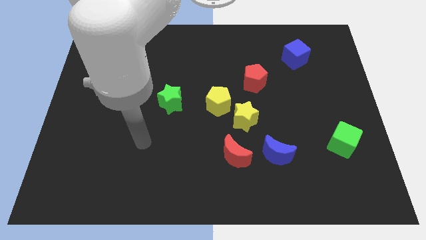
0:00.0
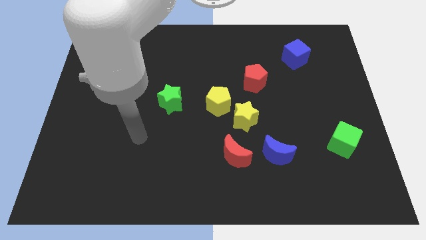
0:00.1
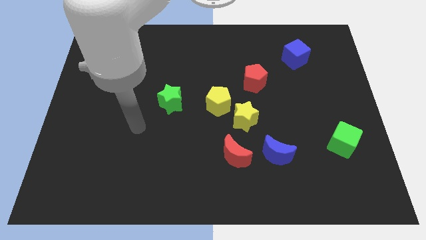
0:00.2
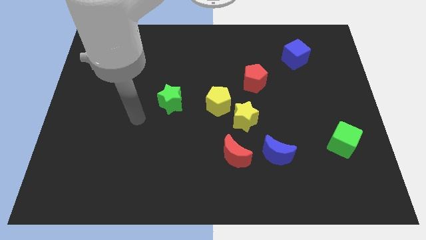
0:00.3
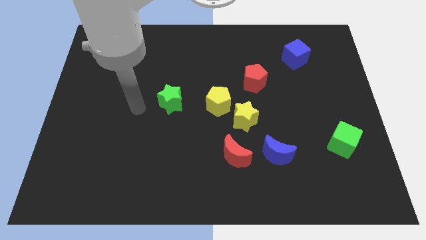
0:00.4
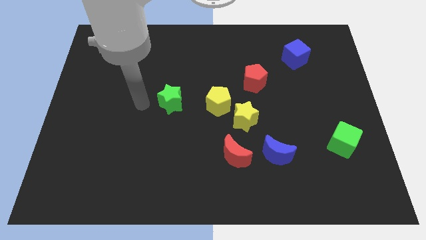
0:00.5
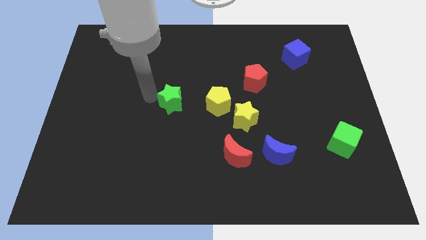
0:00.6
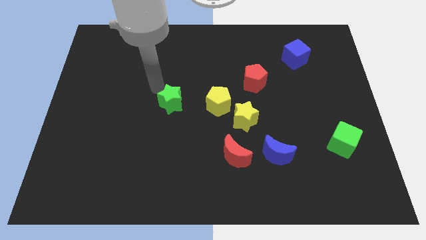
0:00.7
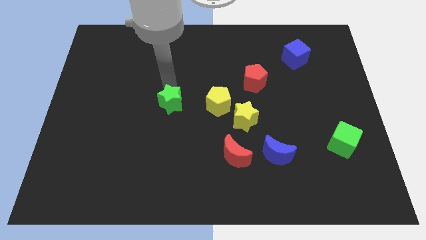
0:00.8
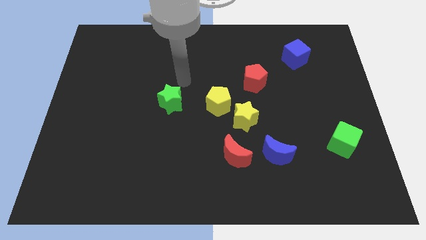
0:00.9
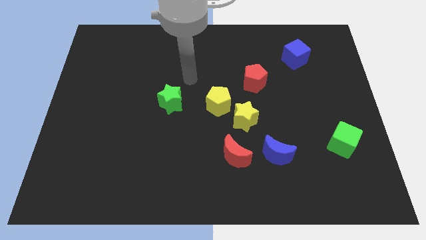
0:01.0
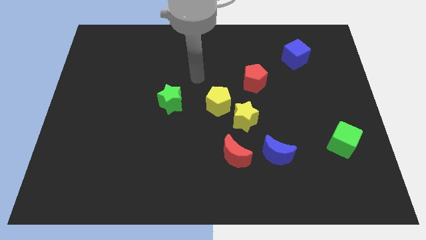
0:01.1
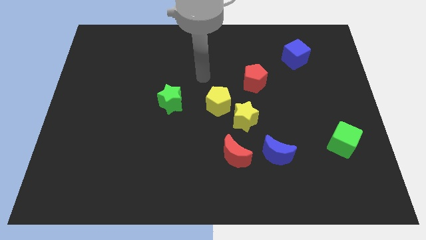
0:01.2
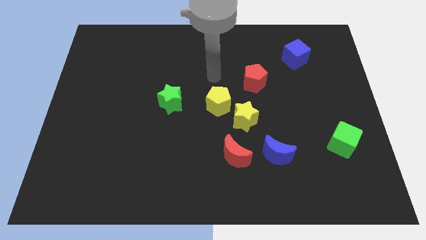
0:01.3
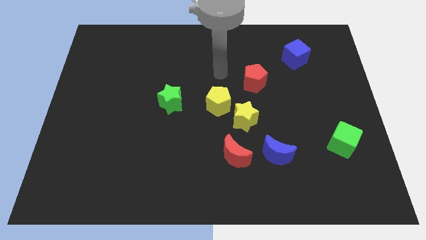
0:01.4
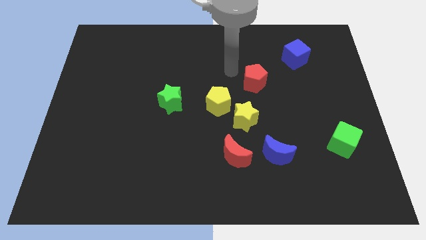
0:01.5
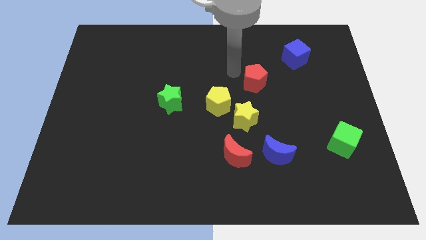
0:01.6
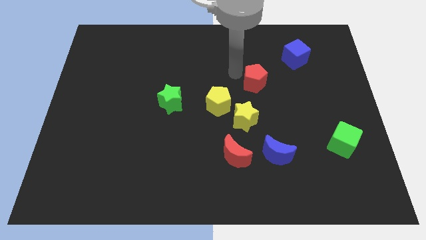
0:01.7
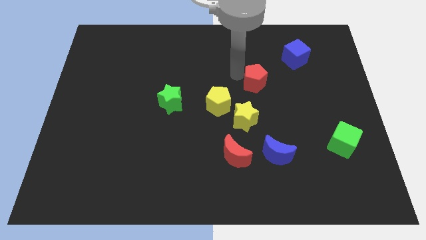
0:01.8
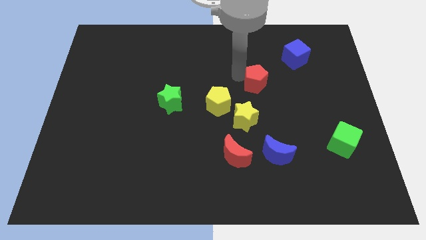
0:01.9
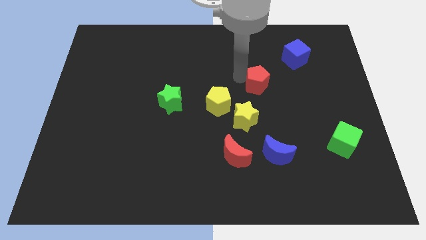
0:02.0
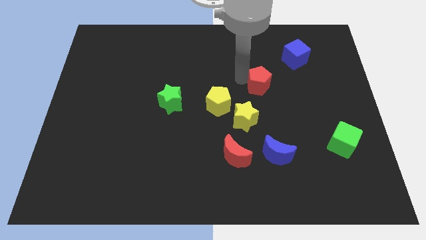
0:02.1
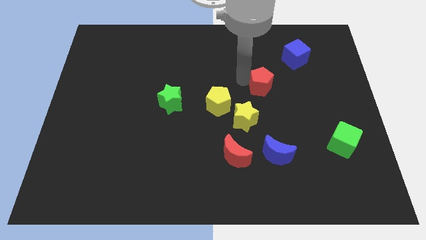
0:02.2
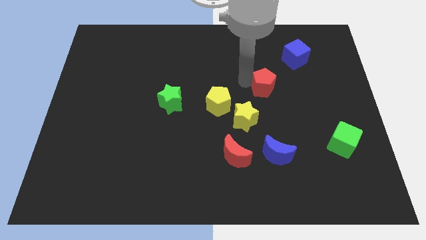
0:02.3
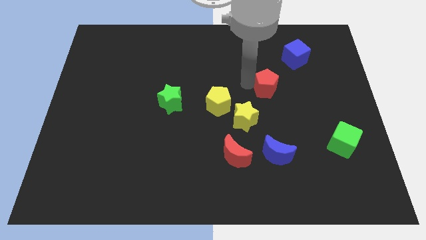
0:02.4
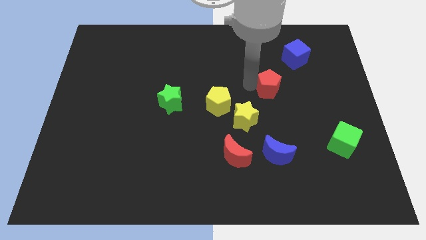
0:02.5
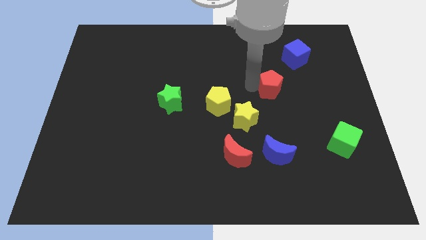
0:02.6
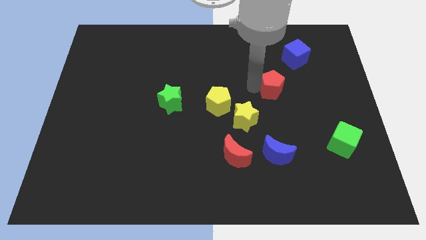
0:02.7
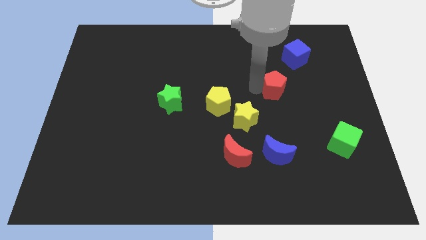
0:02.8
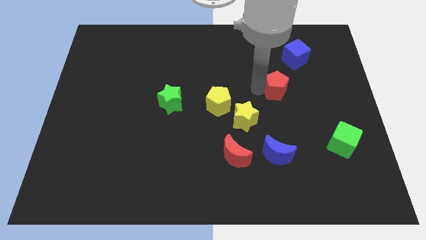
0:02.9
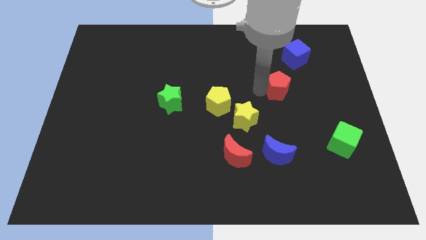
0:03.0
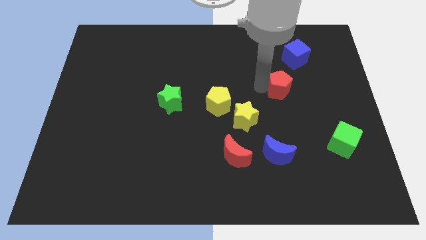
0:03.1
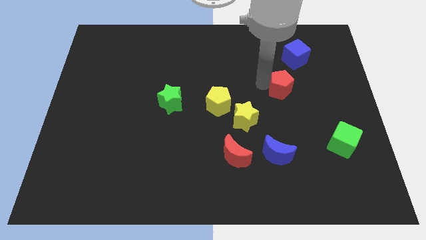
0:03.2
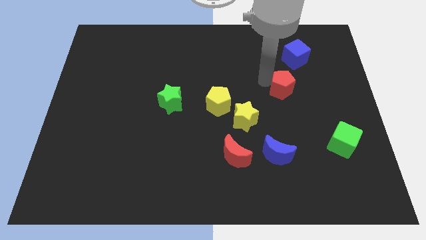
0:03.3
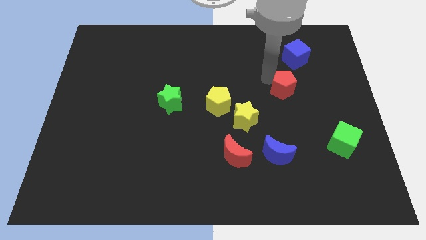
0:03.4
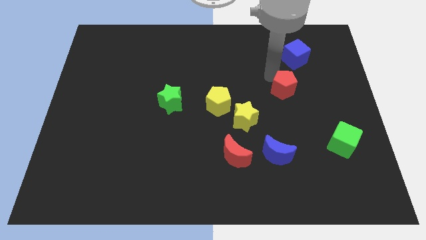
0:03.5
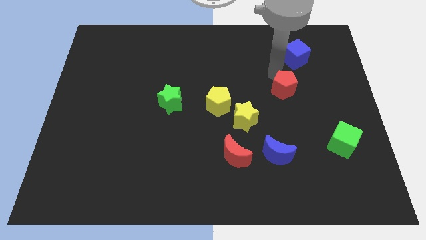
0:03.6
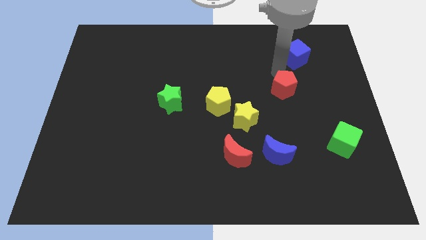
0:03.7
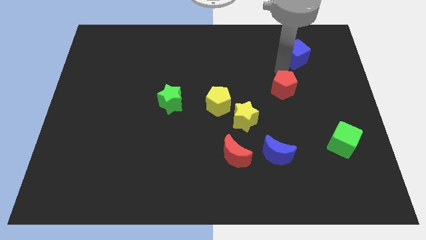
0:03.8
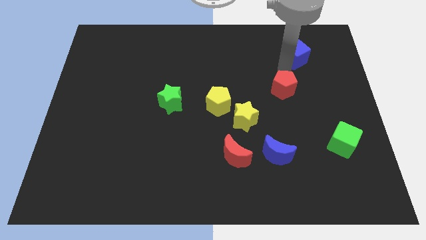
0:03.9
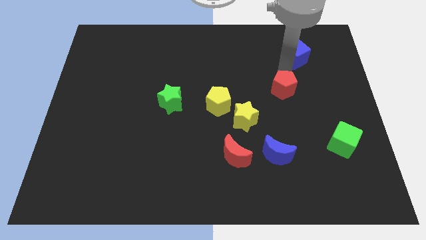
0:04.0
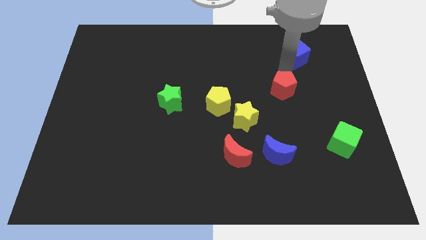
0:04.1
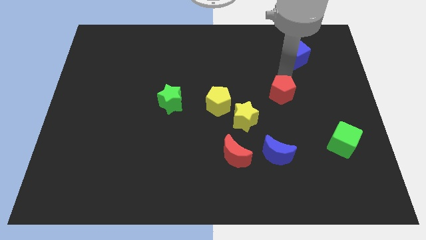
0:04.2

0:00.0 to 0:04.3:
slide the red pentagon down and to the right diagonally a bit

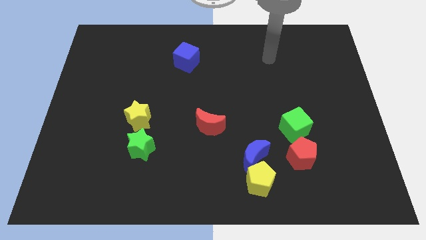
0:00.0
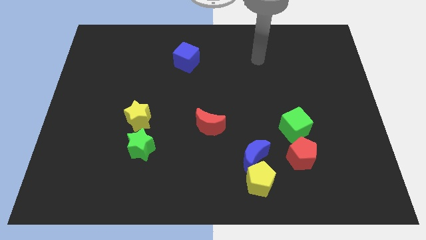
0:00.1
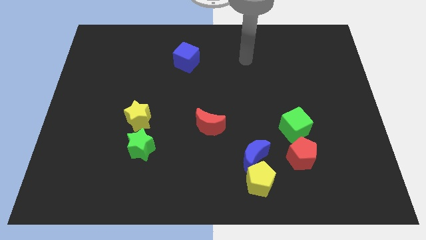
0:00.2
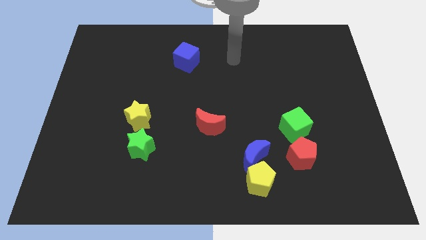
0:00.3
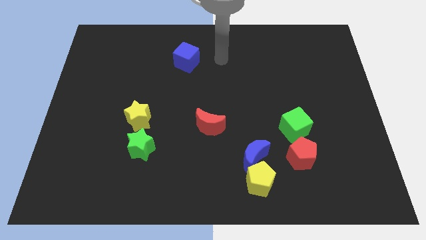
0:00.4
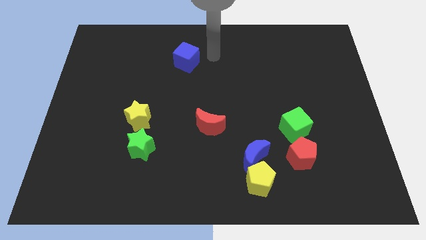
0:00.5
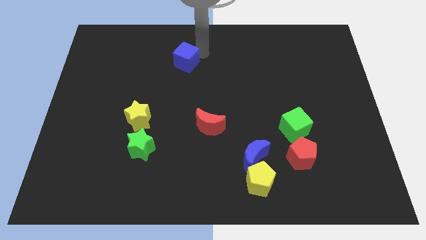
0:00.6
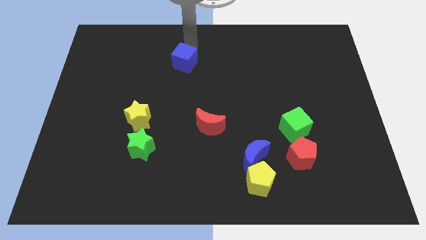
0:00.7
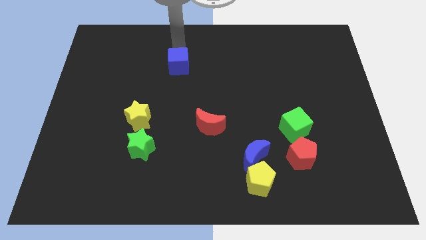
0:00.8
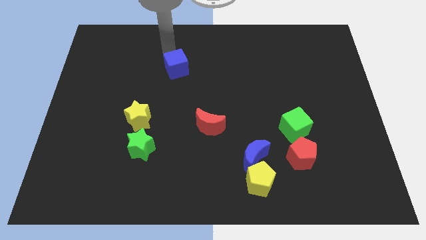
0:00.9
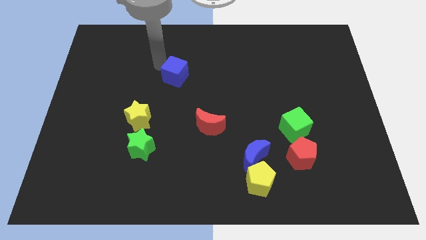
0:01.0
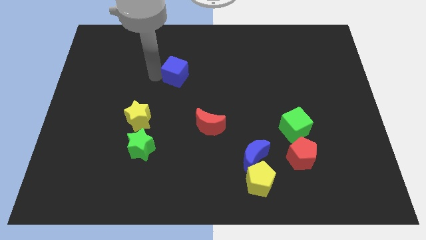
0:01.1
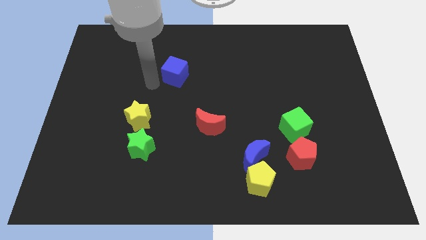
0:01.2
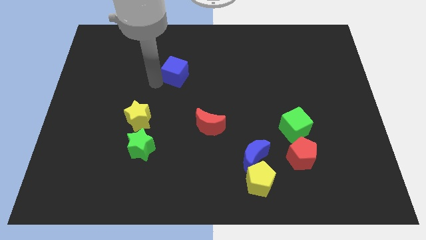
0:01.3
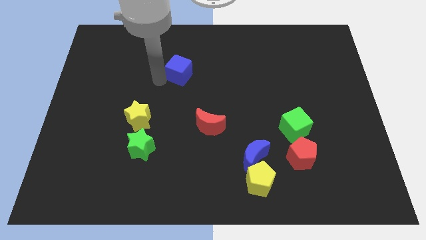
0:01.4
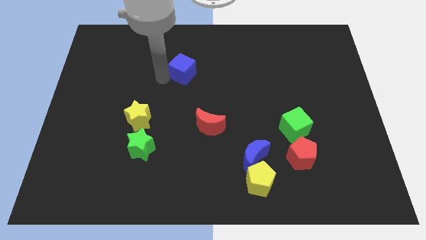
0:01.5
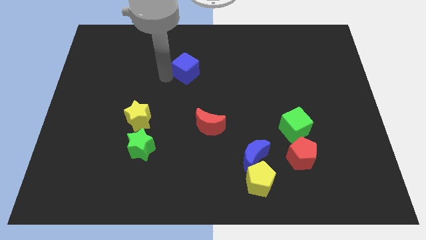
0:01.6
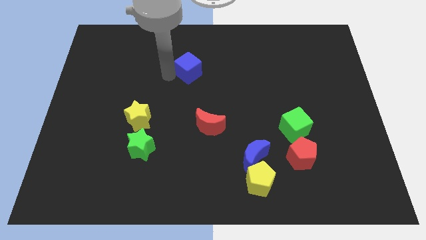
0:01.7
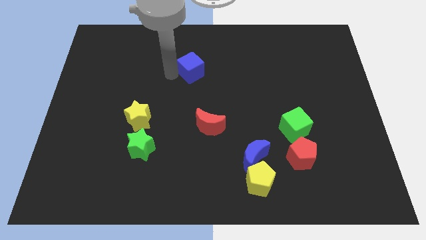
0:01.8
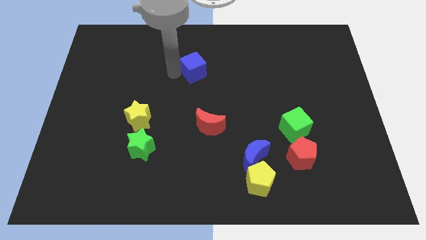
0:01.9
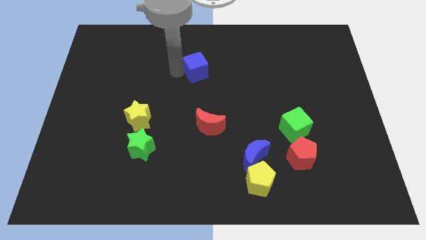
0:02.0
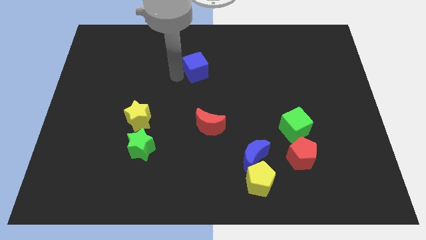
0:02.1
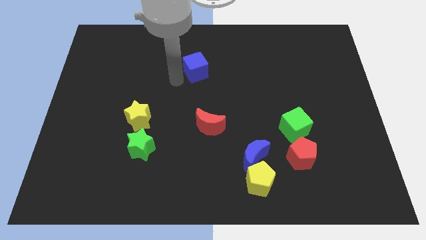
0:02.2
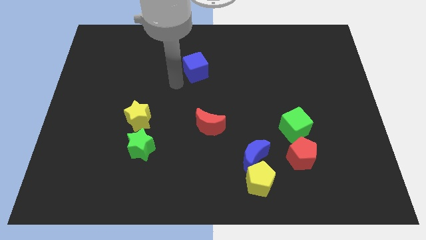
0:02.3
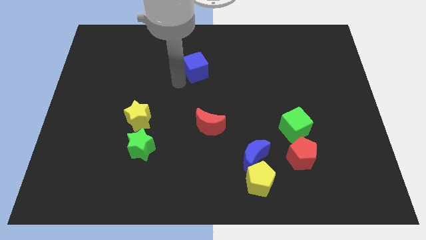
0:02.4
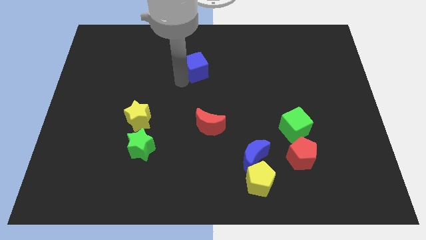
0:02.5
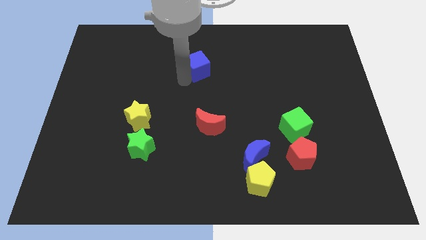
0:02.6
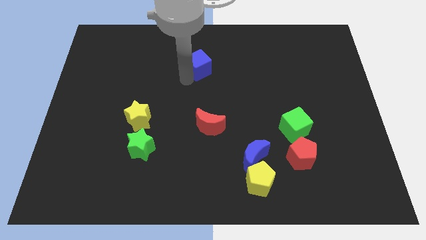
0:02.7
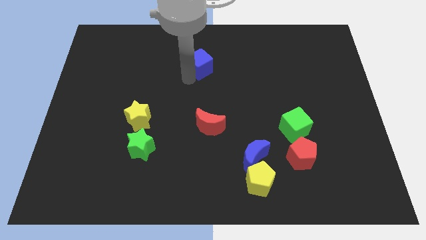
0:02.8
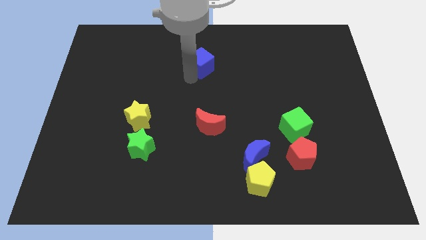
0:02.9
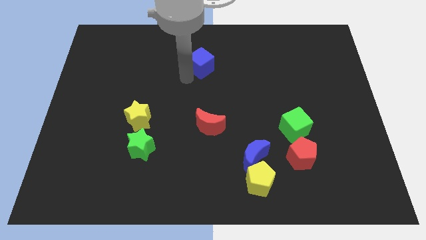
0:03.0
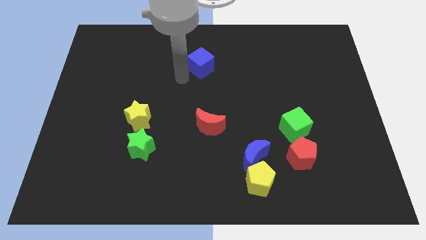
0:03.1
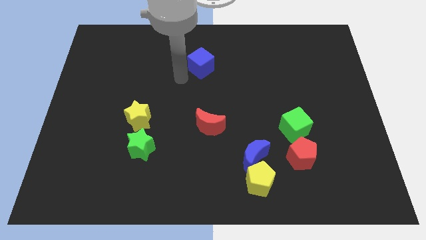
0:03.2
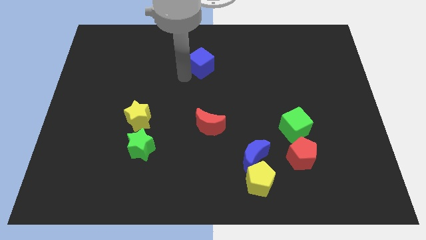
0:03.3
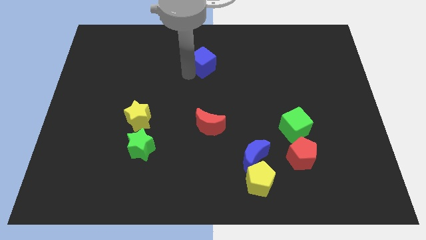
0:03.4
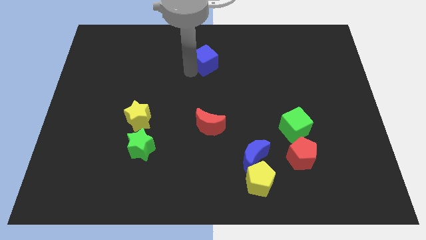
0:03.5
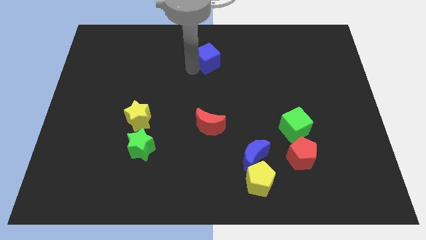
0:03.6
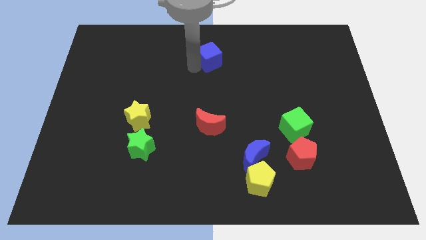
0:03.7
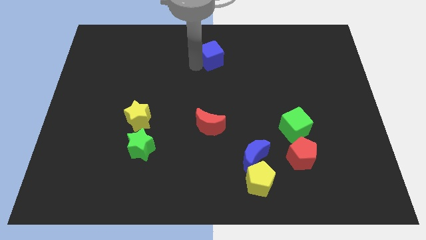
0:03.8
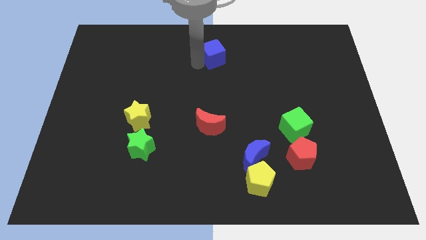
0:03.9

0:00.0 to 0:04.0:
move the blue cube to the right a bit
